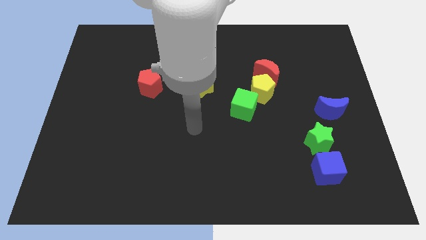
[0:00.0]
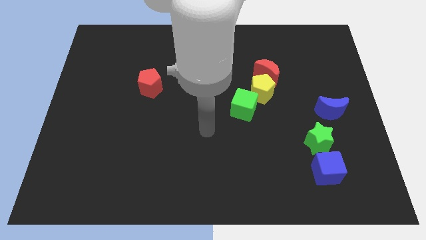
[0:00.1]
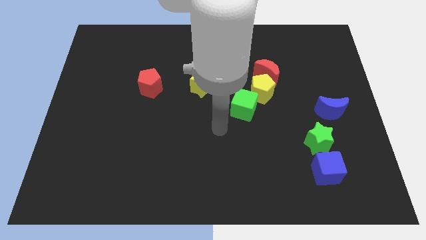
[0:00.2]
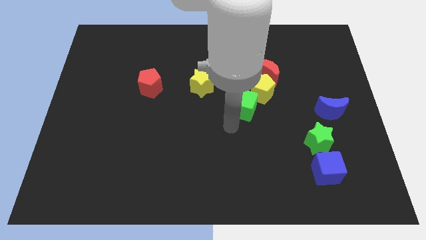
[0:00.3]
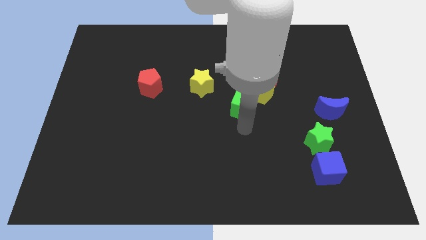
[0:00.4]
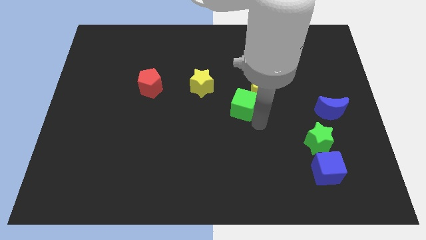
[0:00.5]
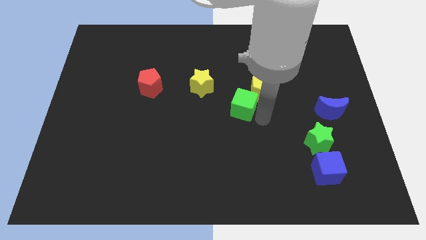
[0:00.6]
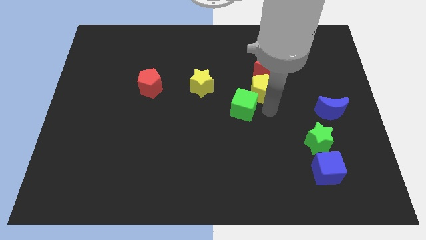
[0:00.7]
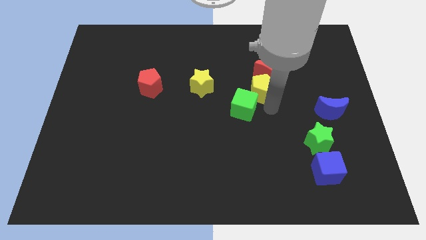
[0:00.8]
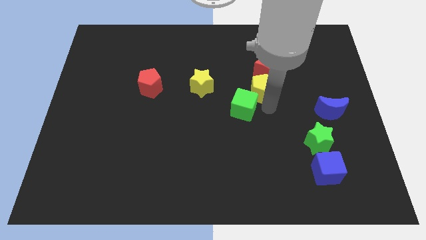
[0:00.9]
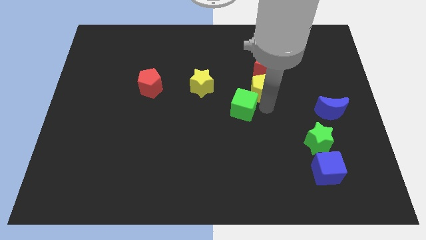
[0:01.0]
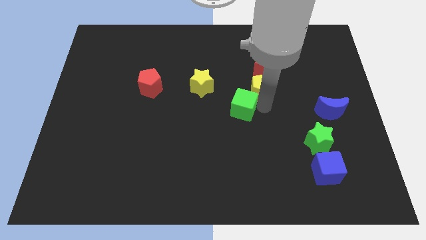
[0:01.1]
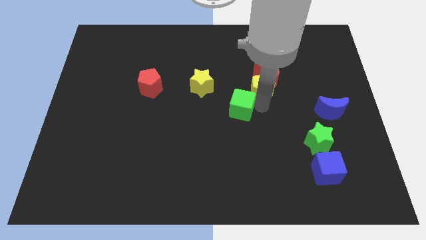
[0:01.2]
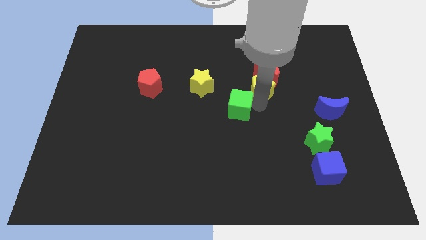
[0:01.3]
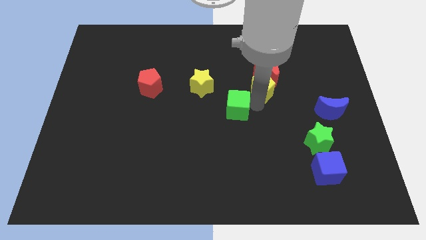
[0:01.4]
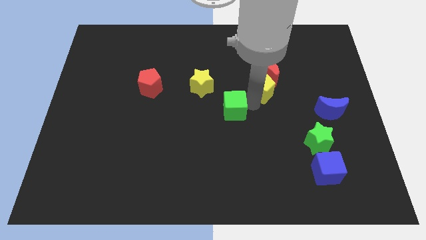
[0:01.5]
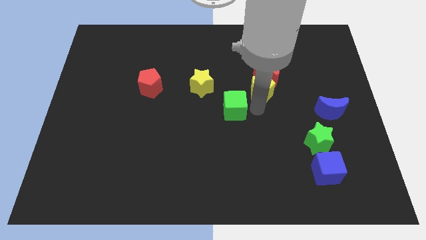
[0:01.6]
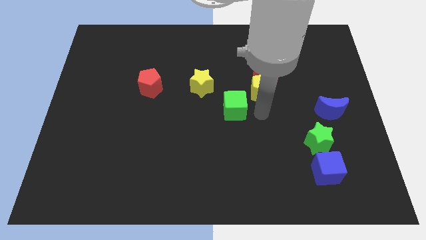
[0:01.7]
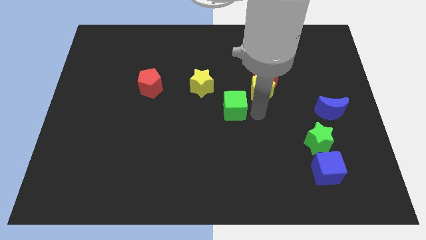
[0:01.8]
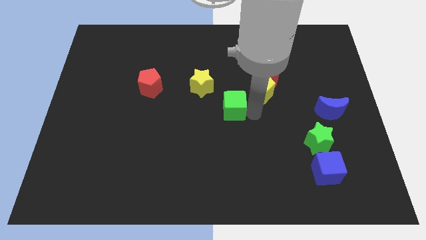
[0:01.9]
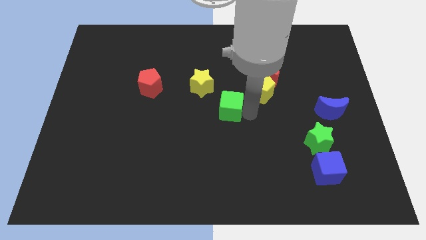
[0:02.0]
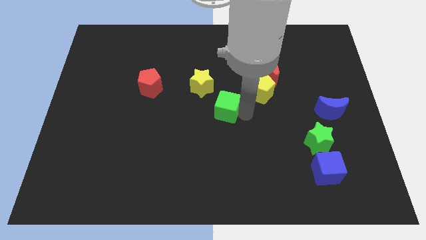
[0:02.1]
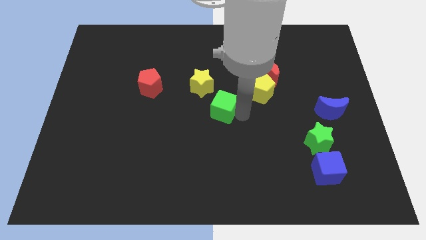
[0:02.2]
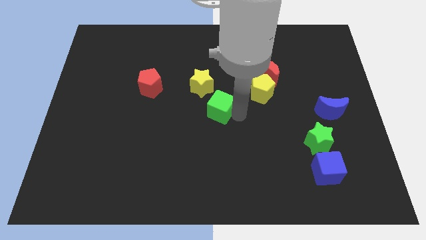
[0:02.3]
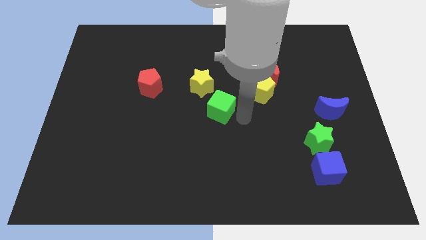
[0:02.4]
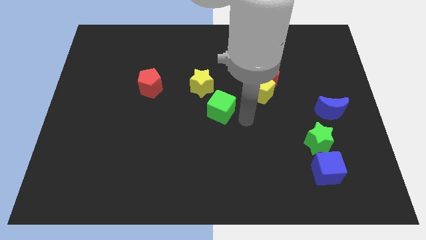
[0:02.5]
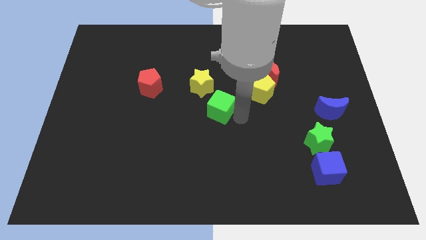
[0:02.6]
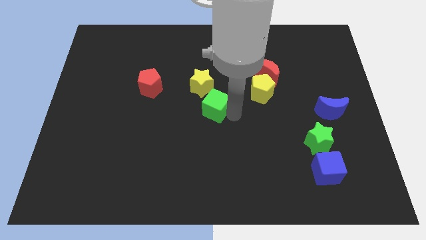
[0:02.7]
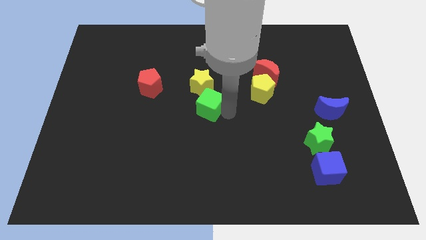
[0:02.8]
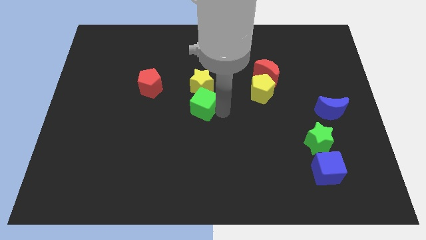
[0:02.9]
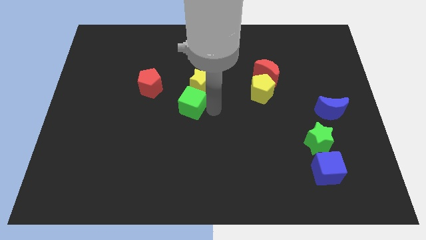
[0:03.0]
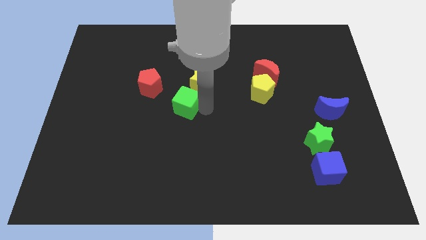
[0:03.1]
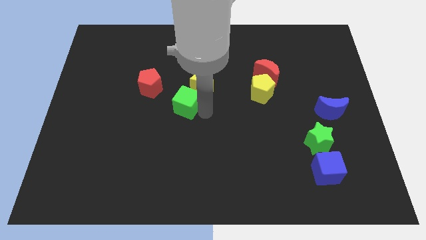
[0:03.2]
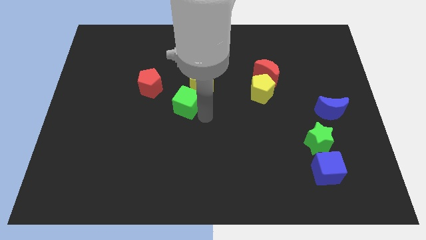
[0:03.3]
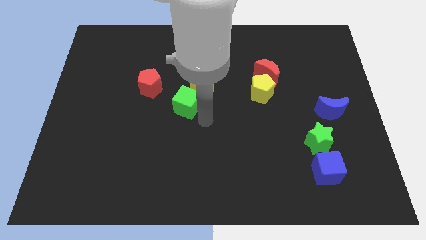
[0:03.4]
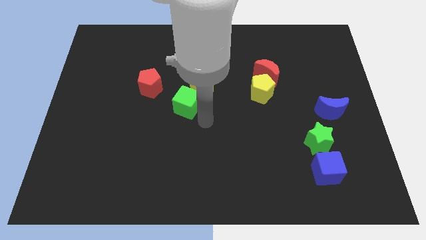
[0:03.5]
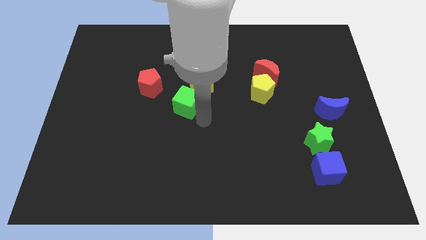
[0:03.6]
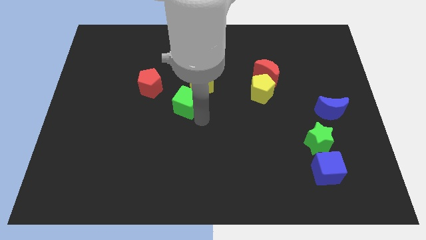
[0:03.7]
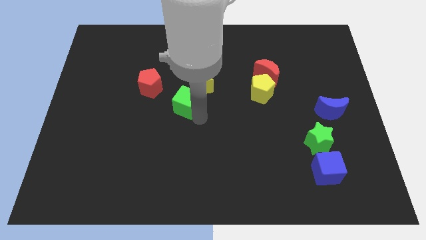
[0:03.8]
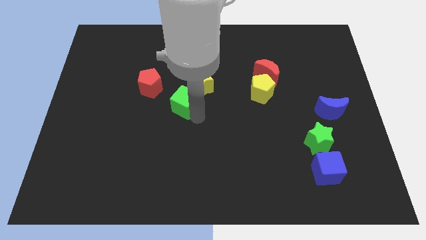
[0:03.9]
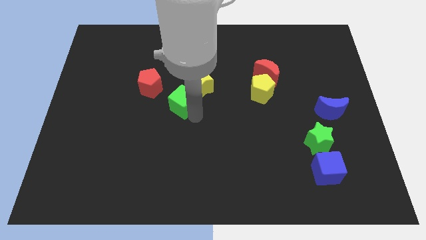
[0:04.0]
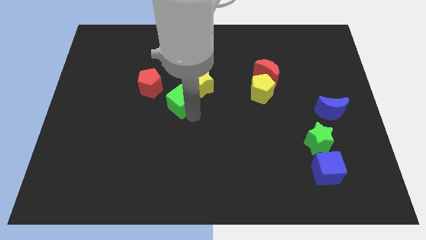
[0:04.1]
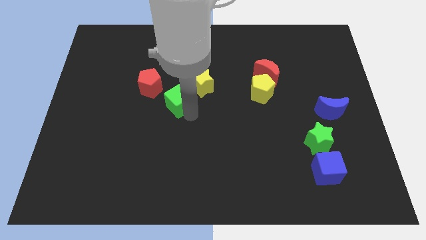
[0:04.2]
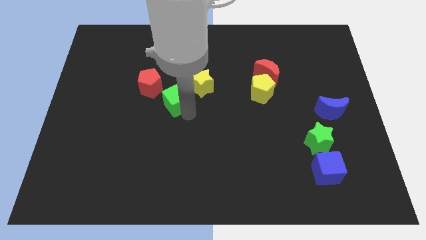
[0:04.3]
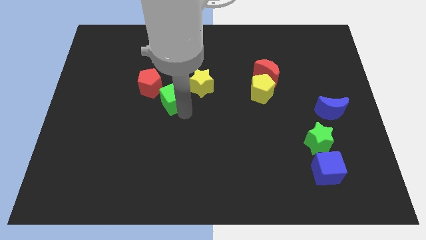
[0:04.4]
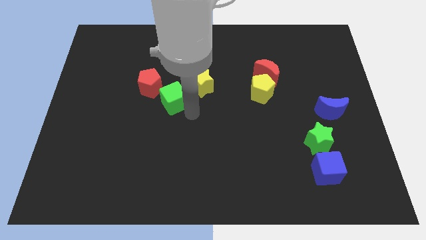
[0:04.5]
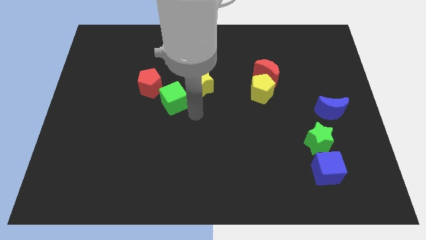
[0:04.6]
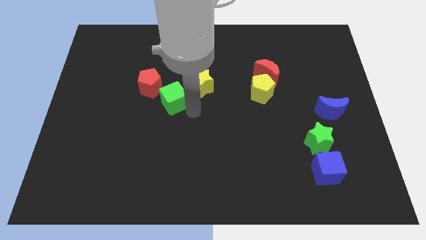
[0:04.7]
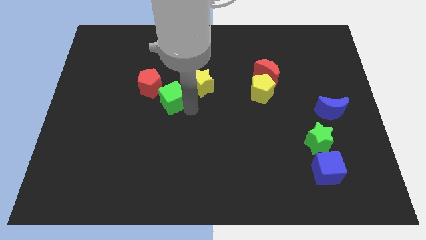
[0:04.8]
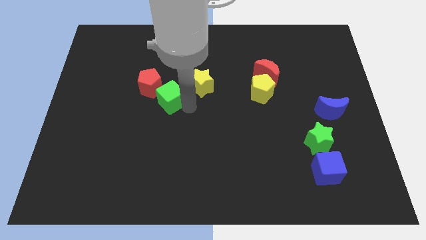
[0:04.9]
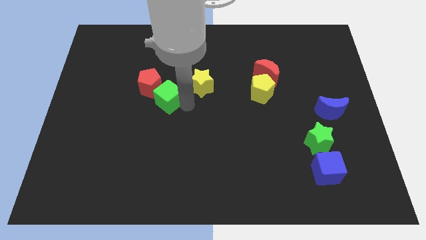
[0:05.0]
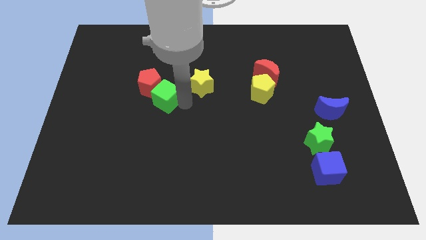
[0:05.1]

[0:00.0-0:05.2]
slide the green cube close to the red pentagon

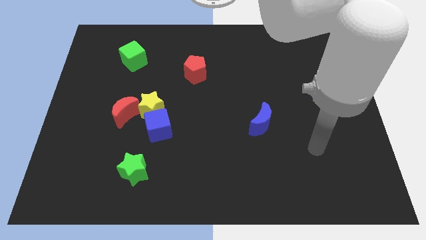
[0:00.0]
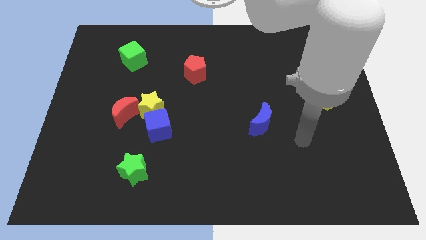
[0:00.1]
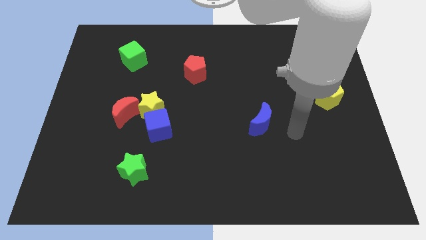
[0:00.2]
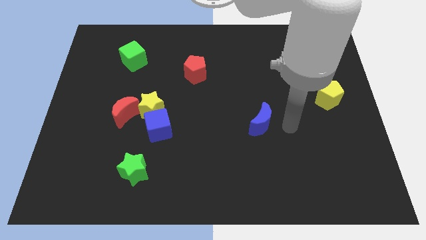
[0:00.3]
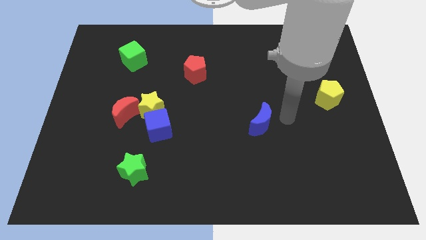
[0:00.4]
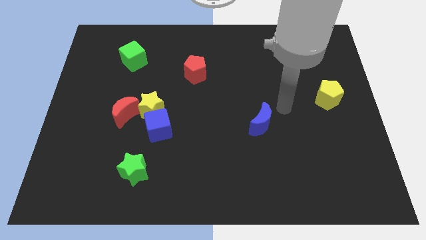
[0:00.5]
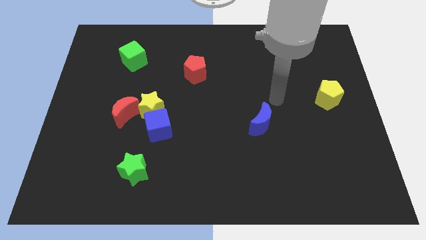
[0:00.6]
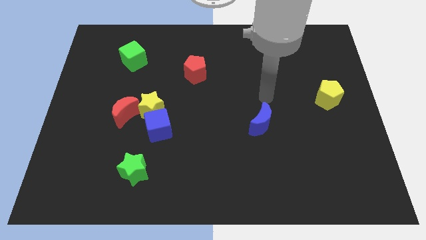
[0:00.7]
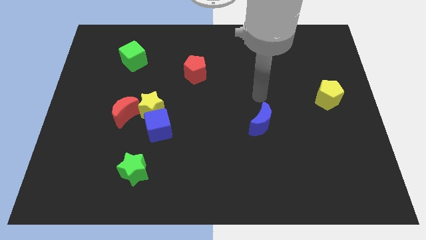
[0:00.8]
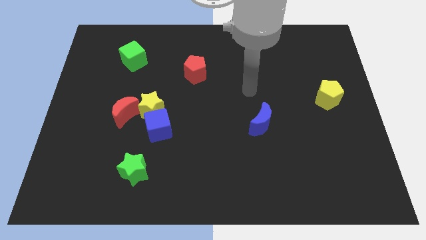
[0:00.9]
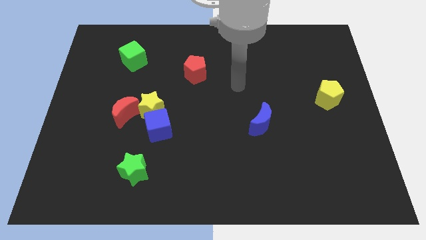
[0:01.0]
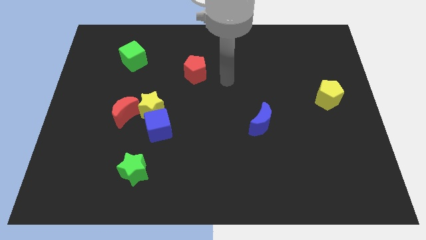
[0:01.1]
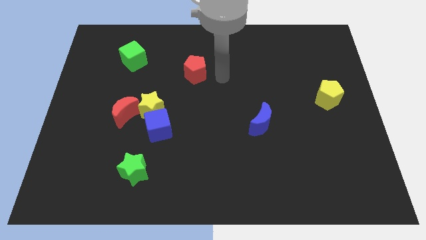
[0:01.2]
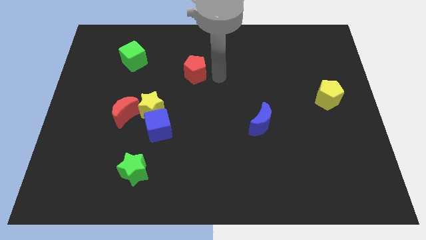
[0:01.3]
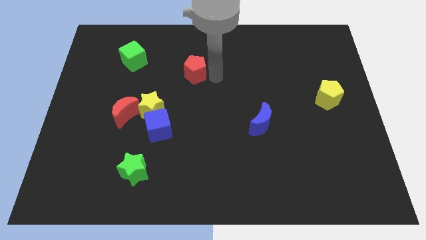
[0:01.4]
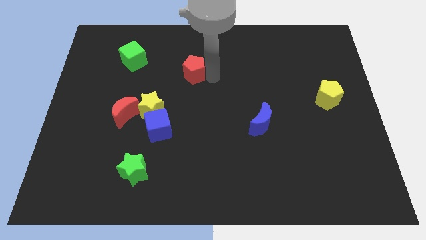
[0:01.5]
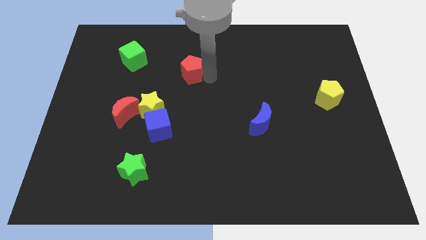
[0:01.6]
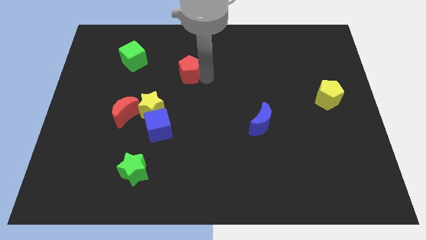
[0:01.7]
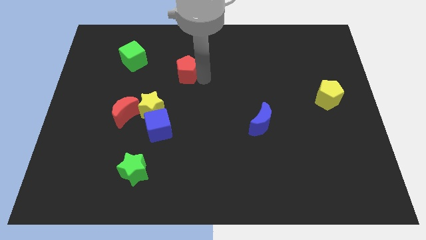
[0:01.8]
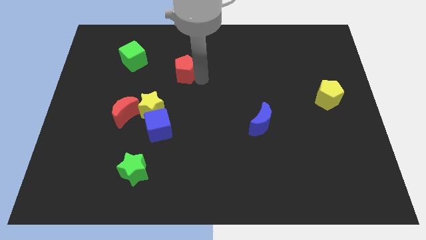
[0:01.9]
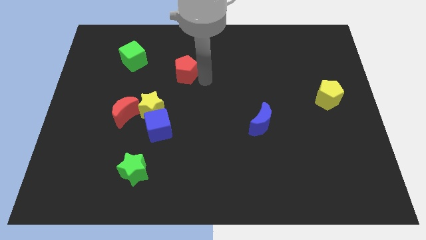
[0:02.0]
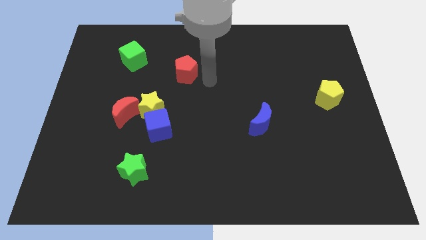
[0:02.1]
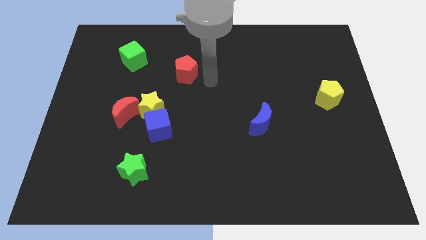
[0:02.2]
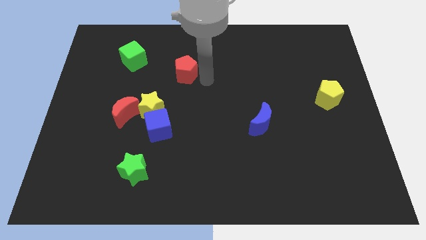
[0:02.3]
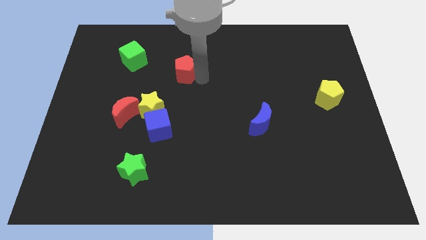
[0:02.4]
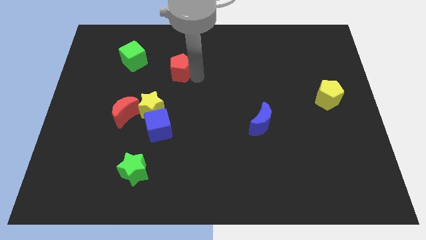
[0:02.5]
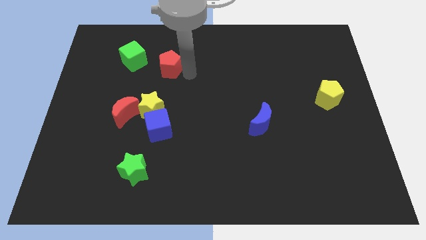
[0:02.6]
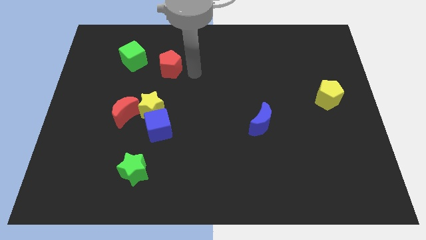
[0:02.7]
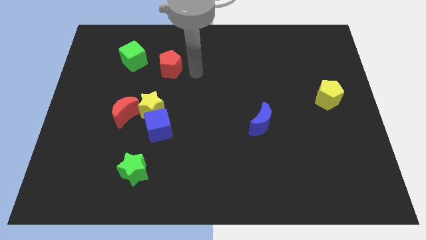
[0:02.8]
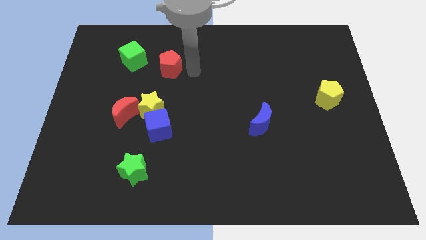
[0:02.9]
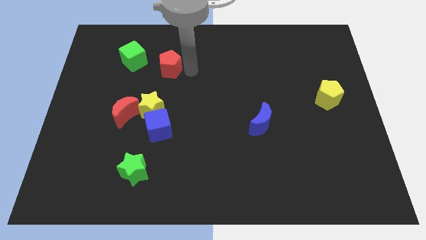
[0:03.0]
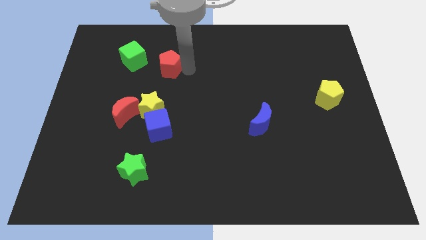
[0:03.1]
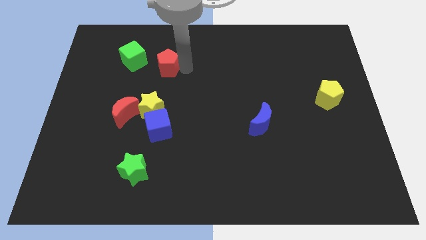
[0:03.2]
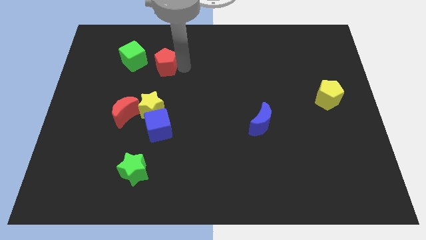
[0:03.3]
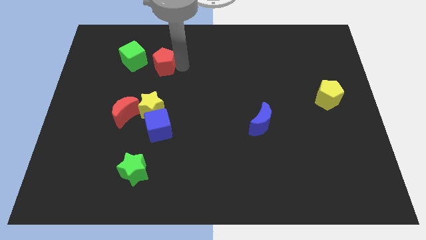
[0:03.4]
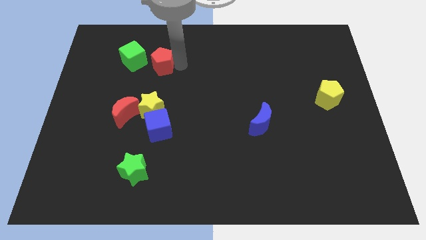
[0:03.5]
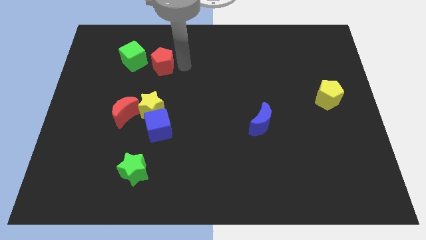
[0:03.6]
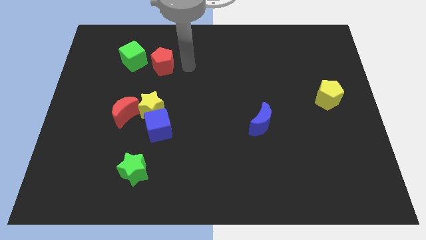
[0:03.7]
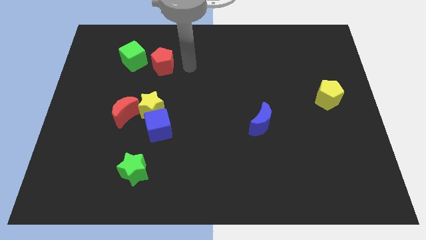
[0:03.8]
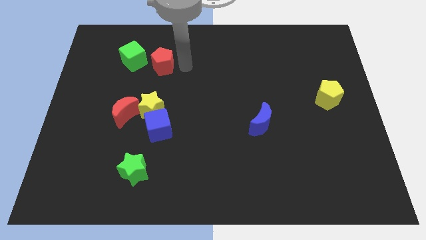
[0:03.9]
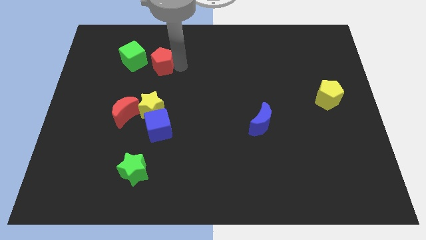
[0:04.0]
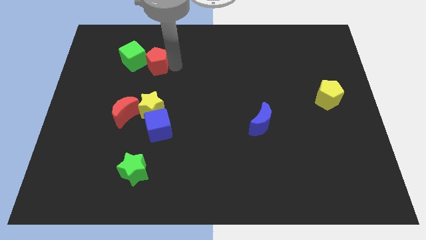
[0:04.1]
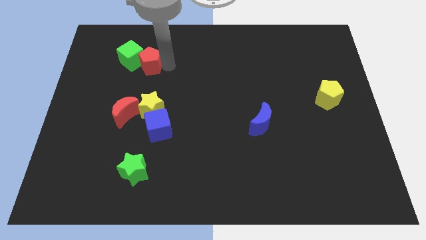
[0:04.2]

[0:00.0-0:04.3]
slide the red pentagon next to the green cube
